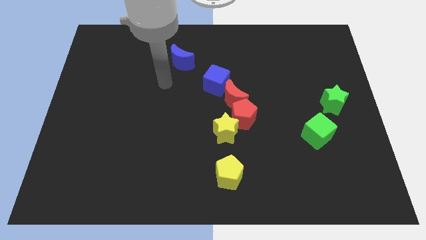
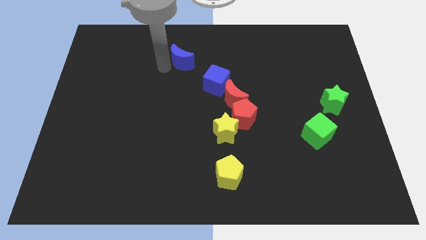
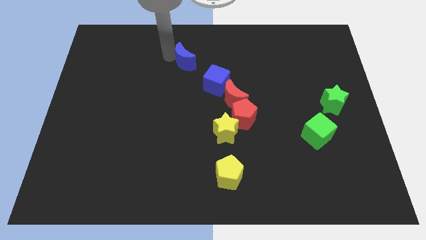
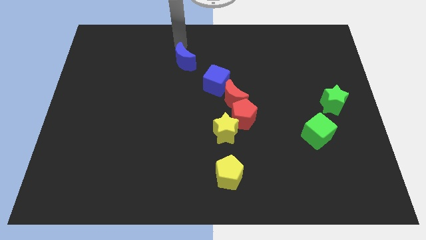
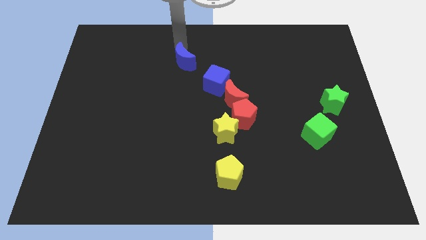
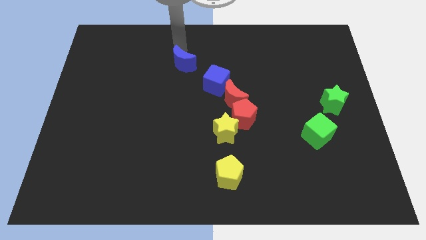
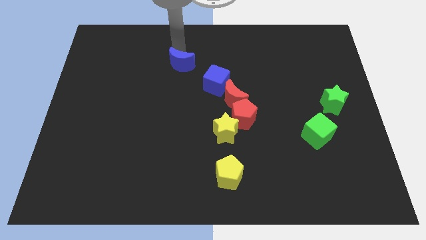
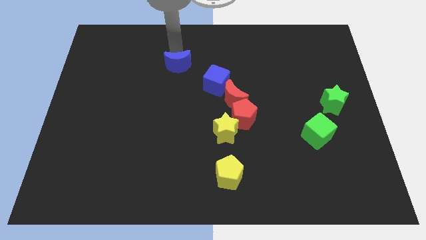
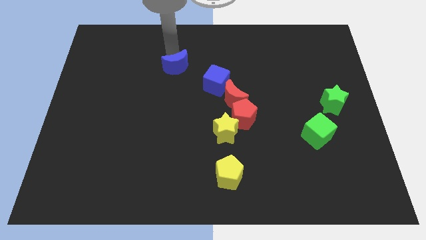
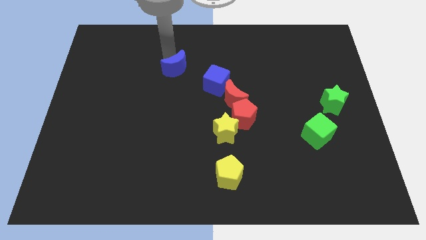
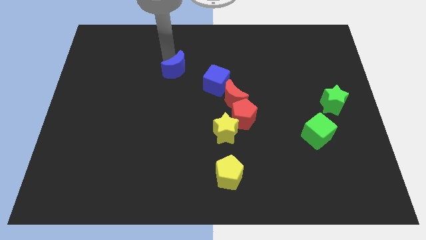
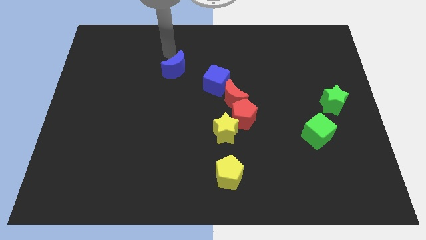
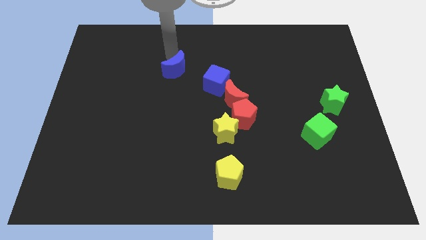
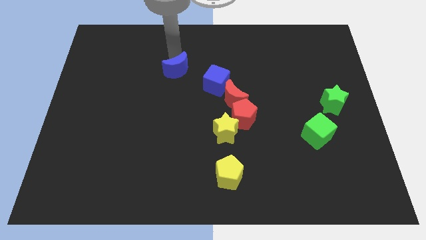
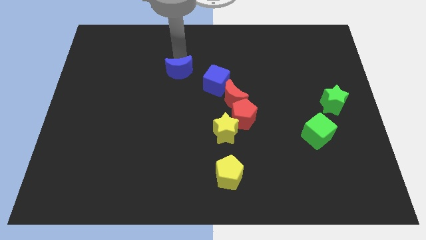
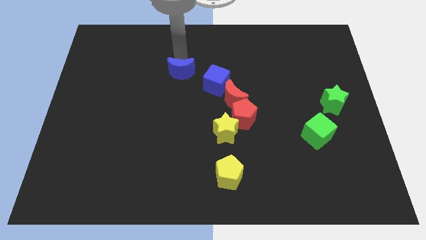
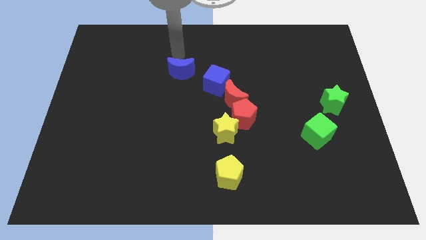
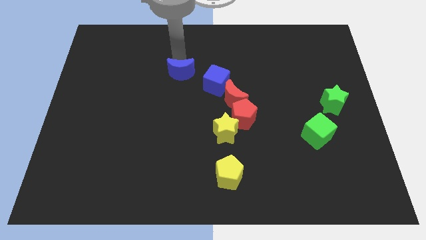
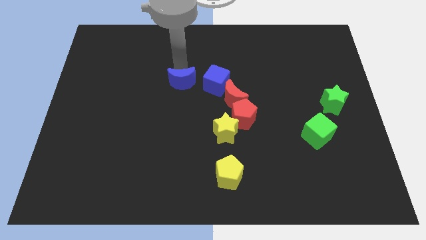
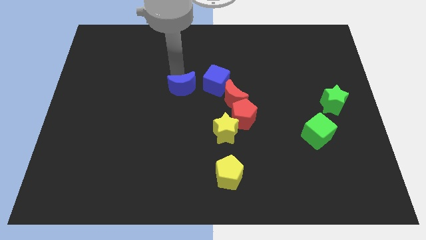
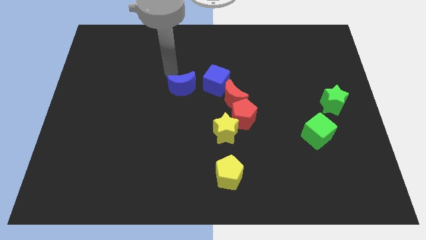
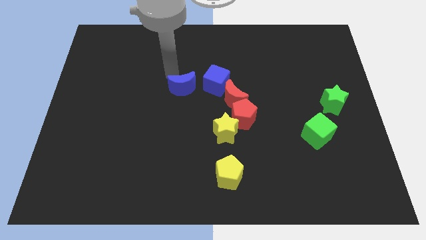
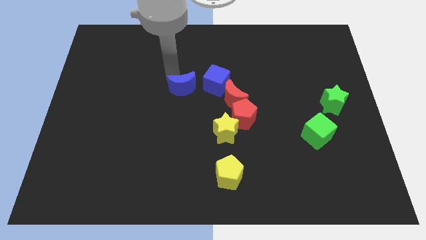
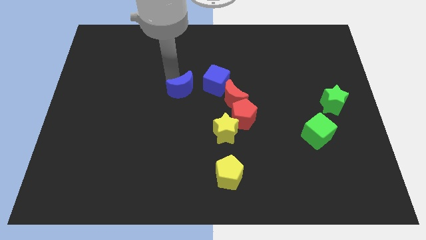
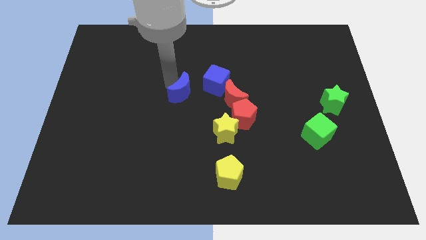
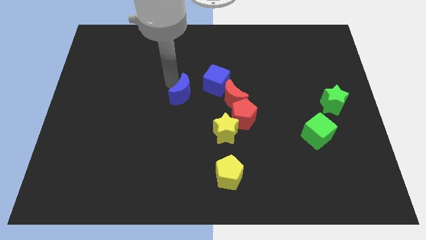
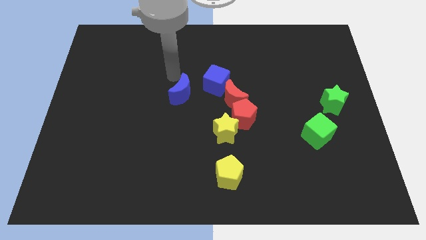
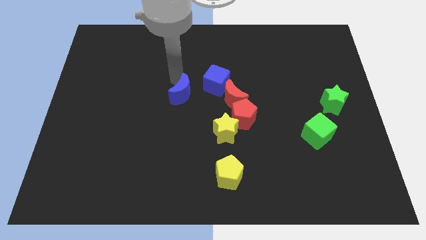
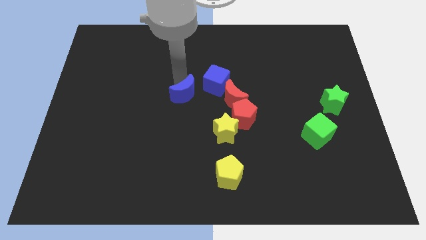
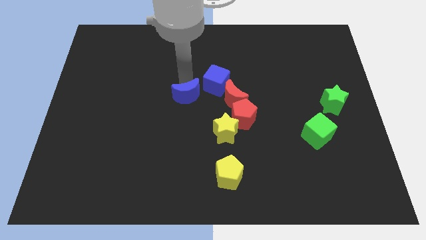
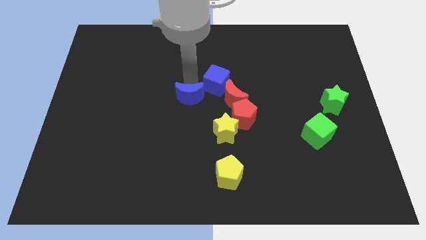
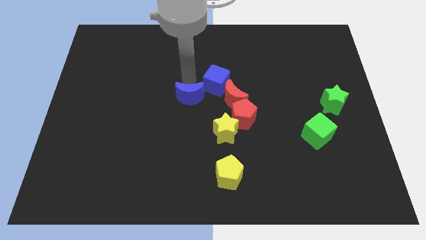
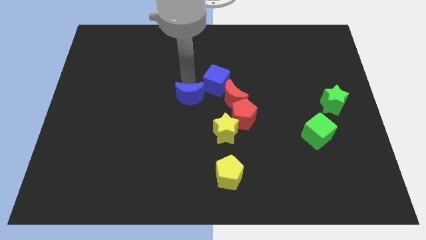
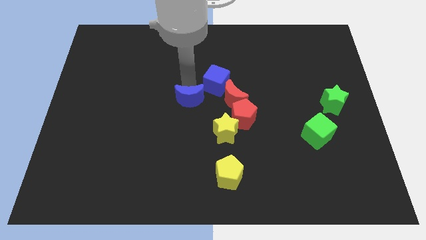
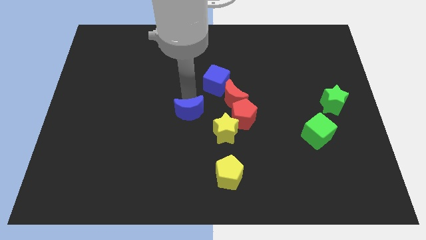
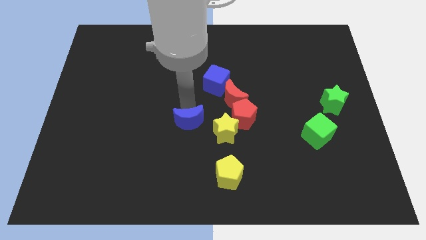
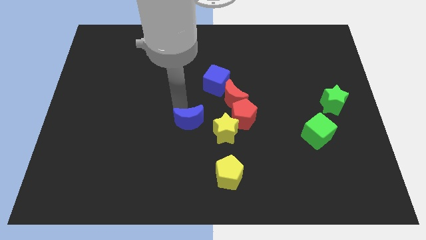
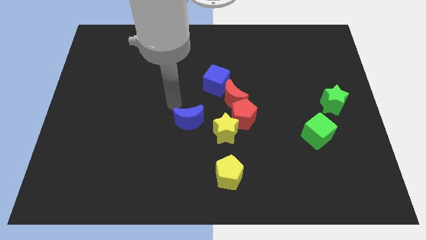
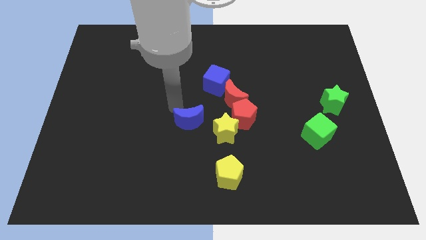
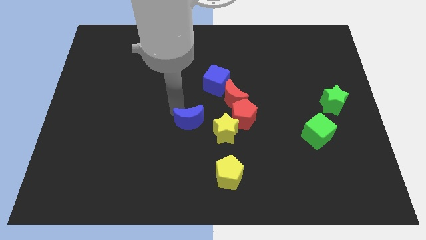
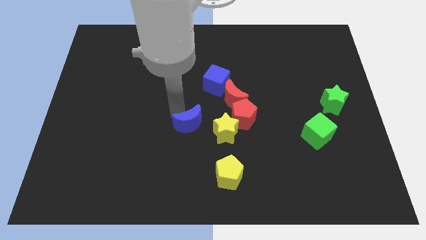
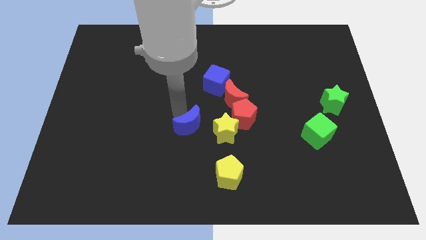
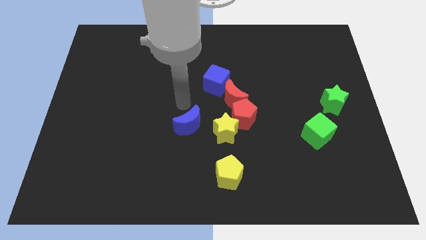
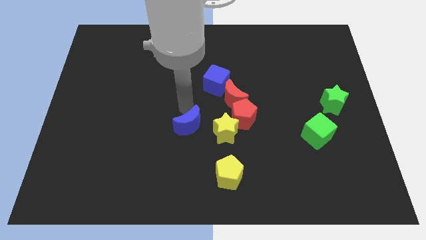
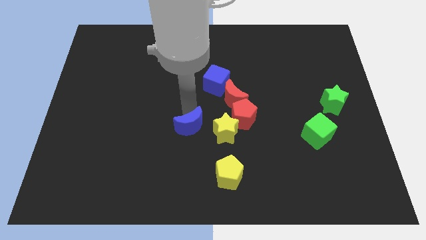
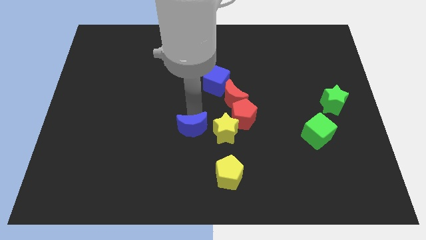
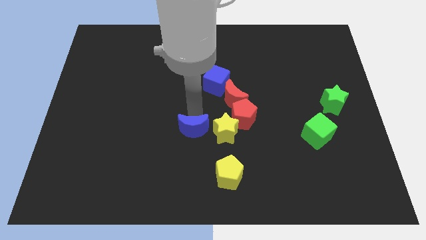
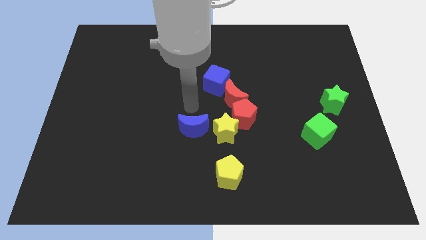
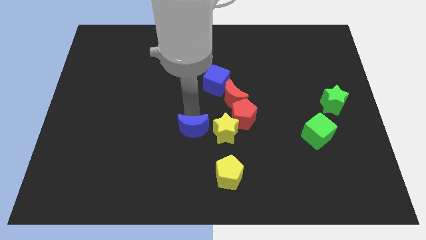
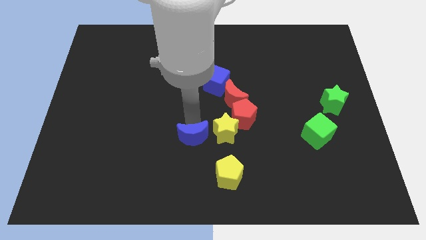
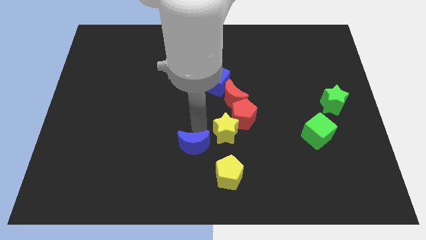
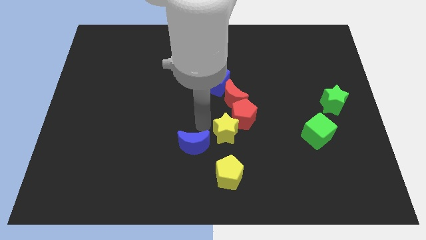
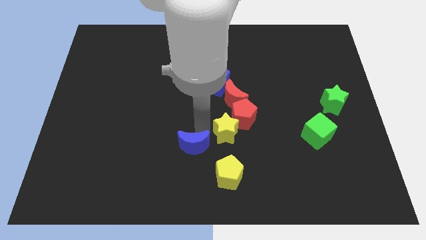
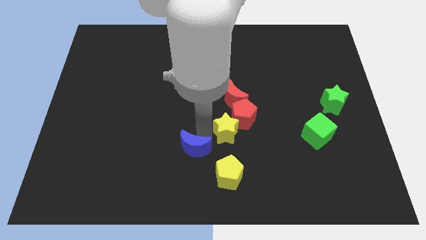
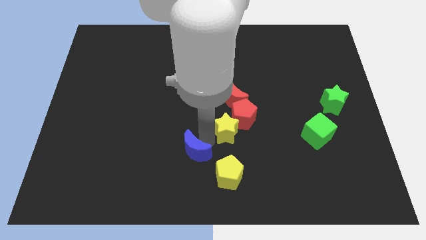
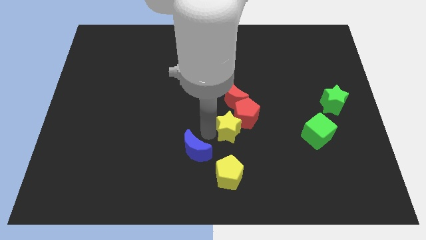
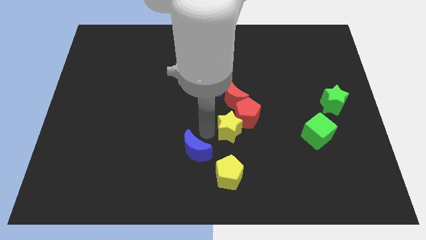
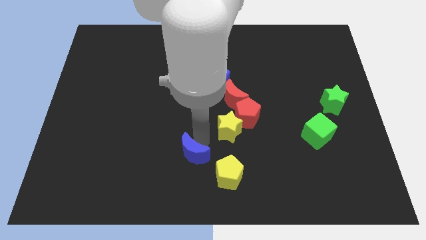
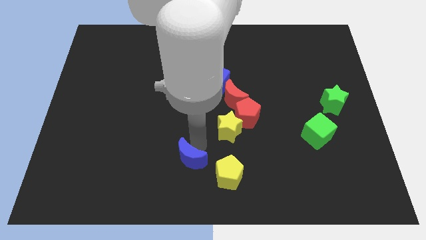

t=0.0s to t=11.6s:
slide the blue moon to the bottom

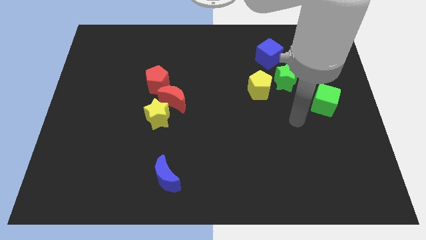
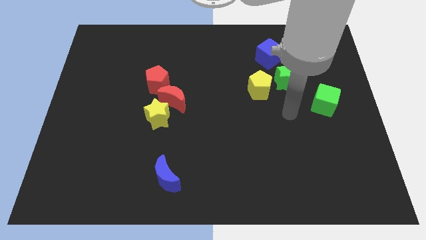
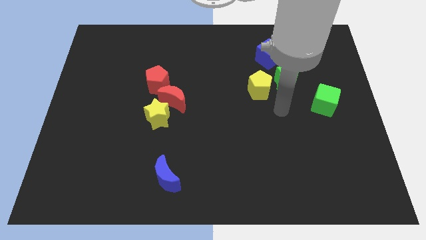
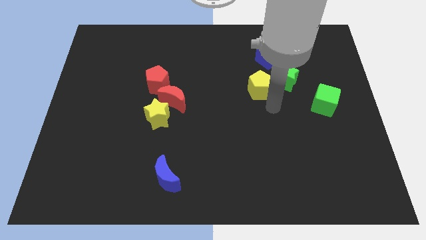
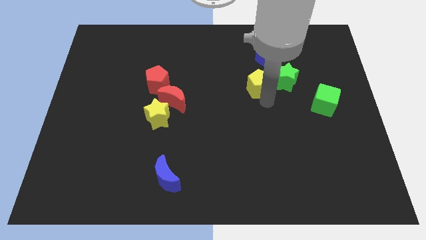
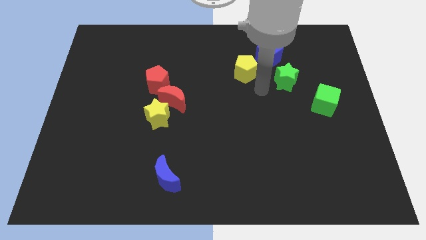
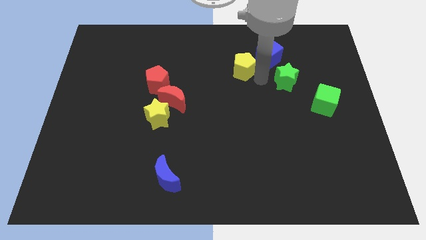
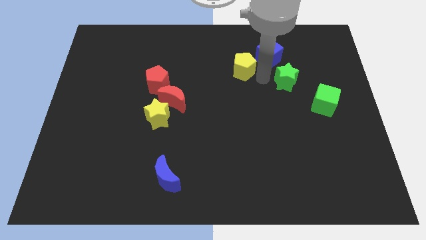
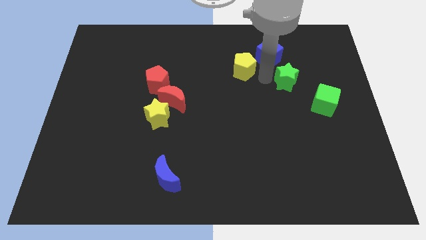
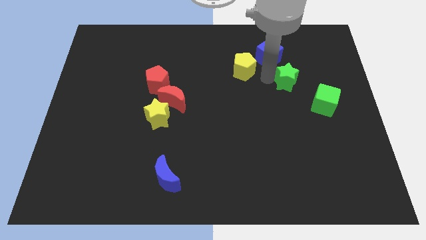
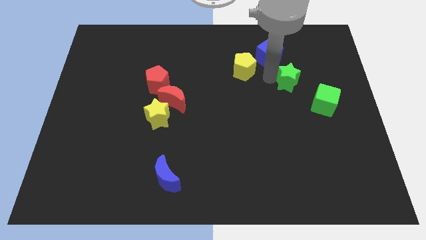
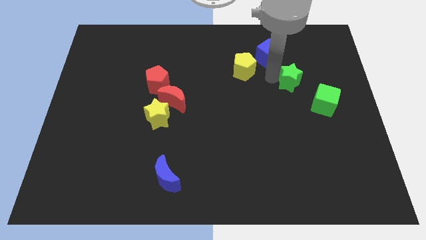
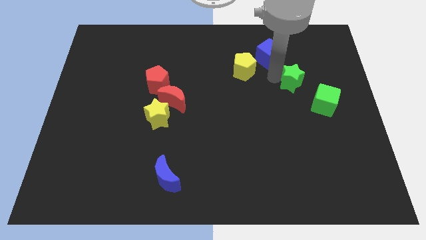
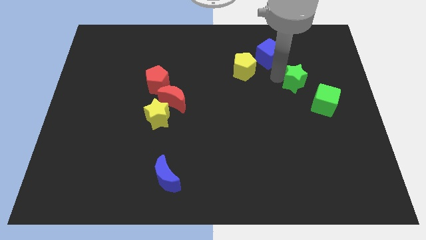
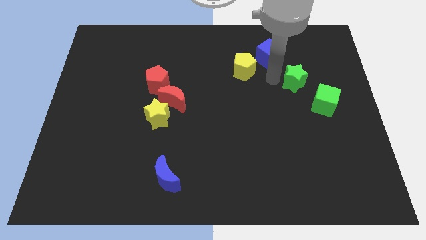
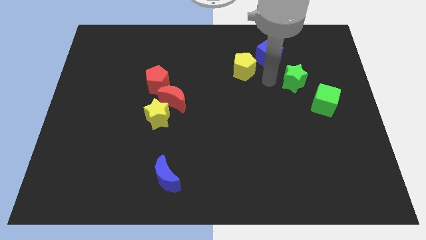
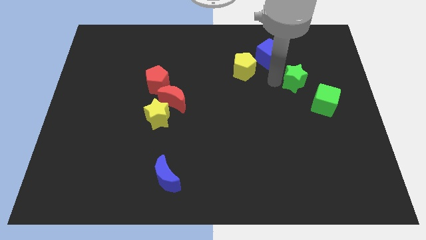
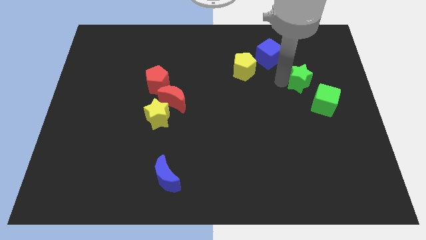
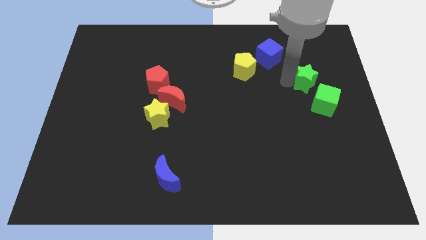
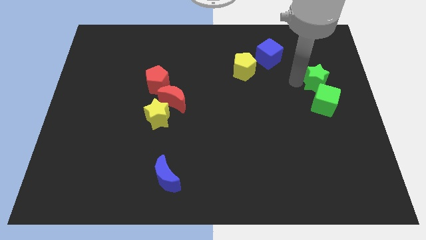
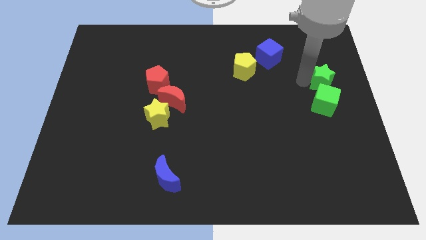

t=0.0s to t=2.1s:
move the green star to the right side

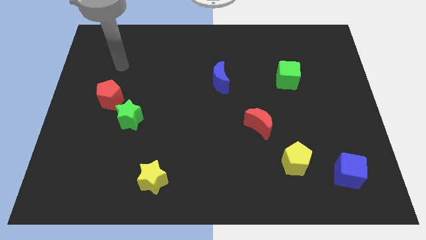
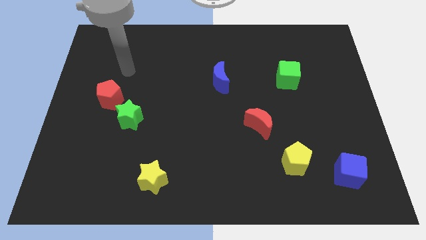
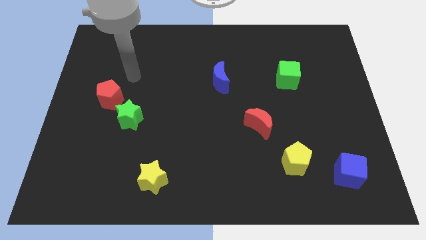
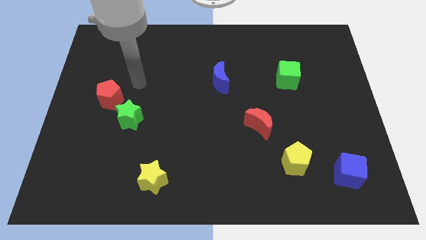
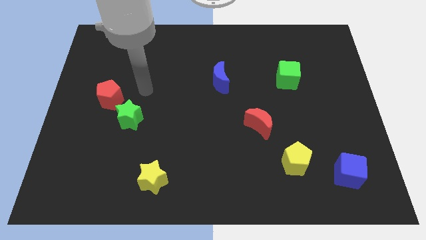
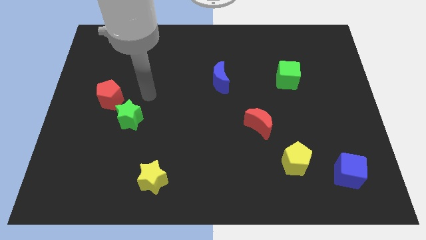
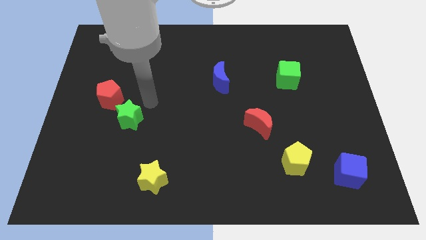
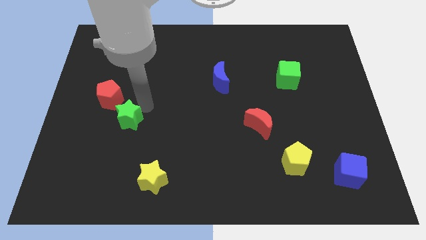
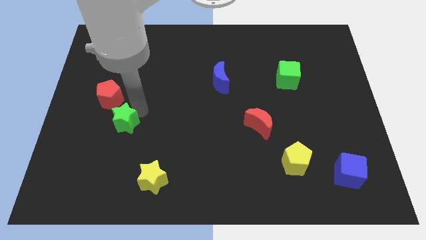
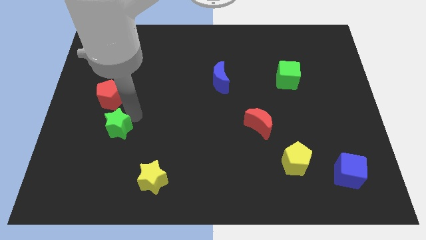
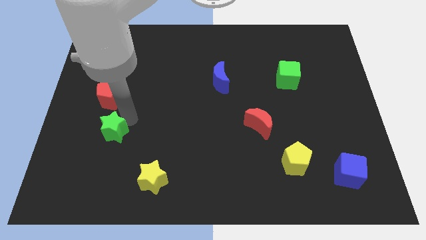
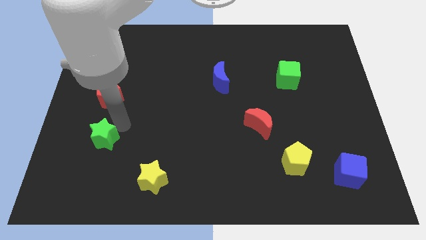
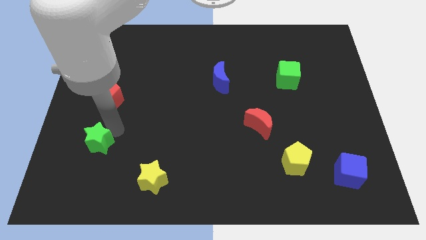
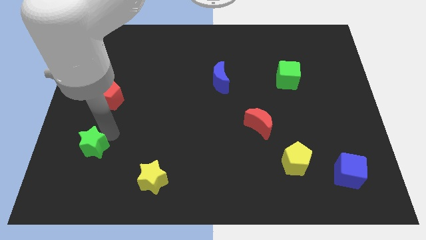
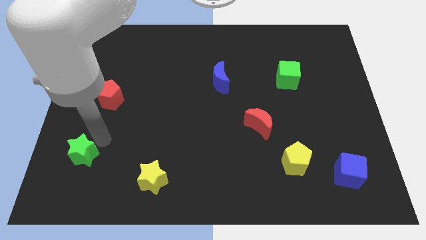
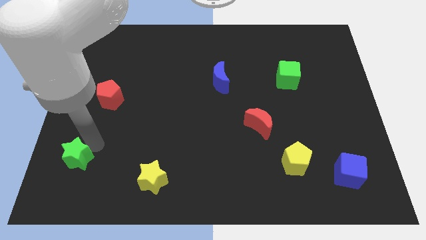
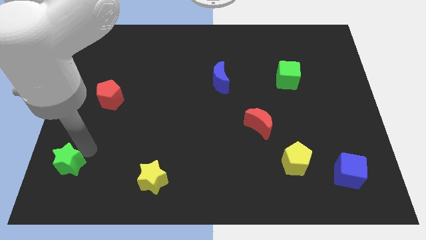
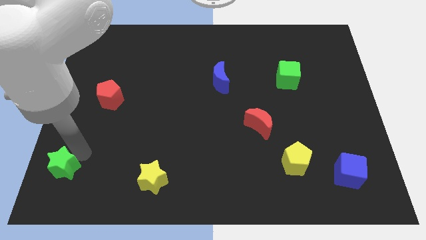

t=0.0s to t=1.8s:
put the green star to the bottom left of the board
